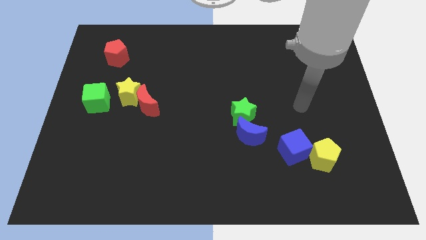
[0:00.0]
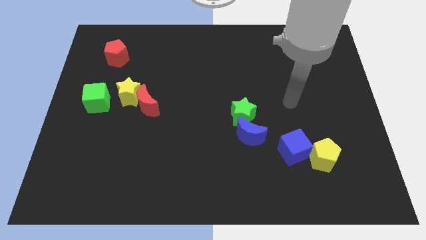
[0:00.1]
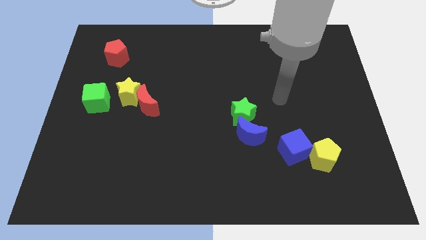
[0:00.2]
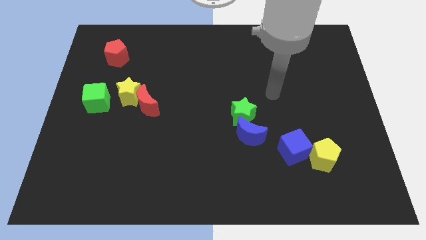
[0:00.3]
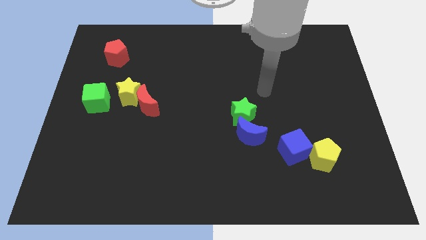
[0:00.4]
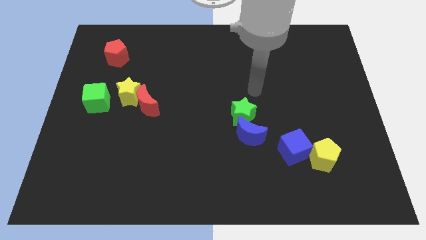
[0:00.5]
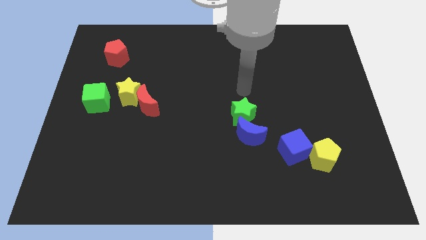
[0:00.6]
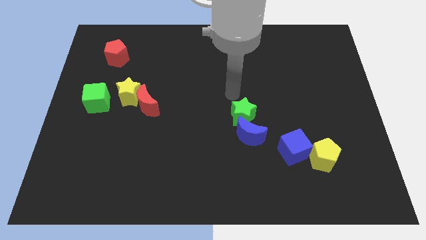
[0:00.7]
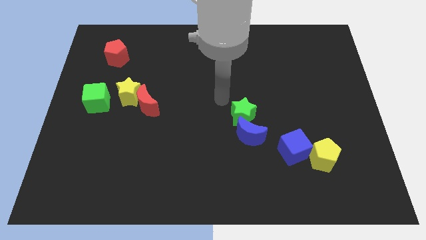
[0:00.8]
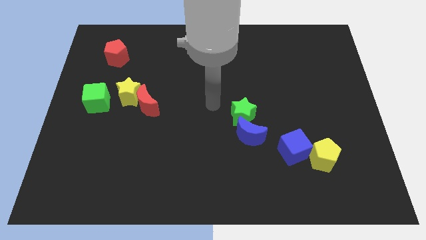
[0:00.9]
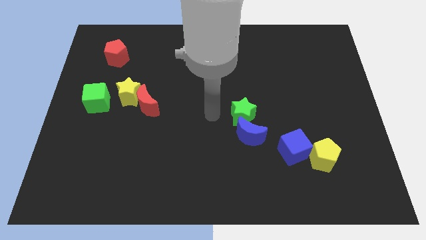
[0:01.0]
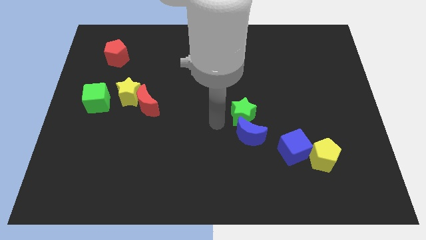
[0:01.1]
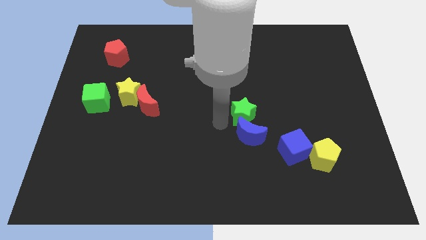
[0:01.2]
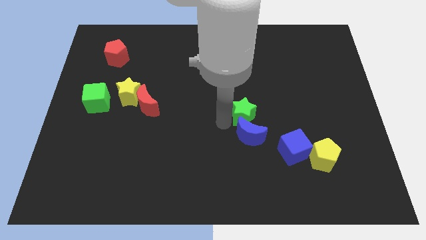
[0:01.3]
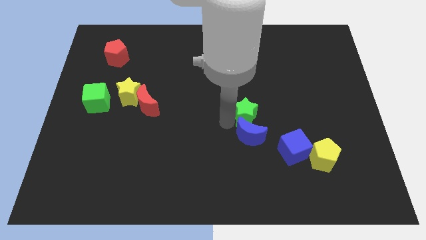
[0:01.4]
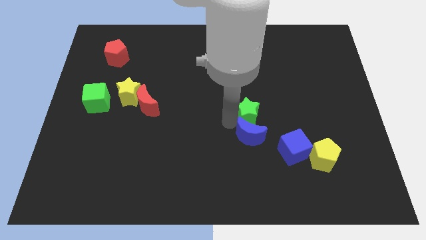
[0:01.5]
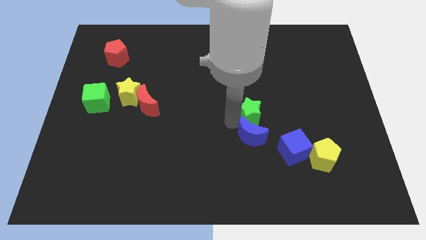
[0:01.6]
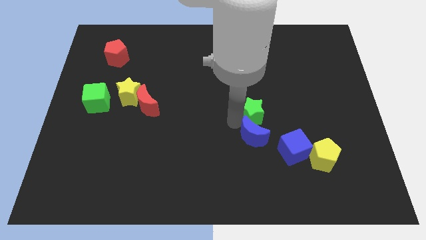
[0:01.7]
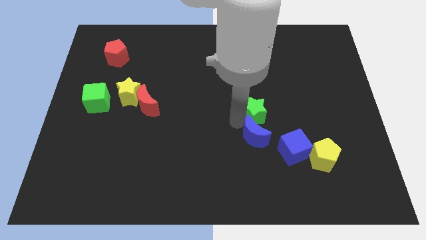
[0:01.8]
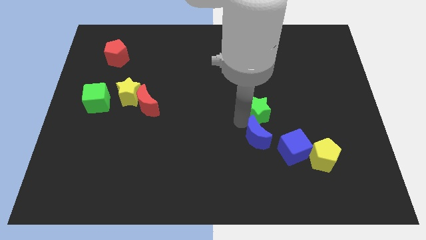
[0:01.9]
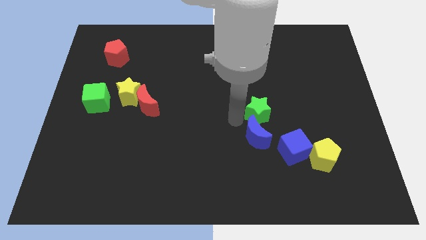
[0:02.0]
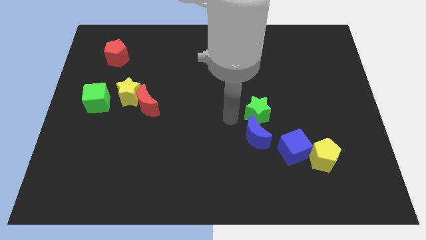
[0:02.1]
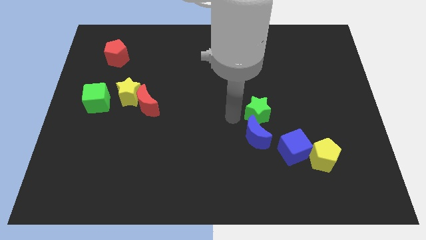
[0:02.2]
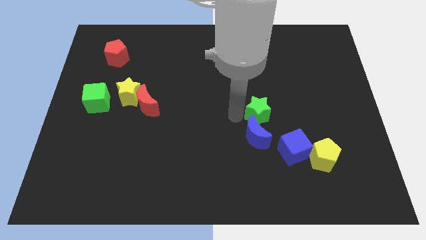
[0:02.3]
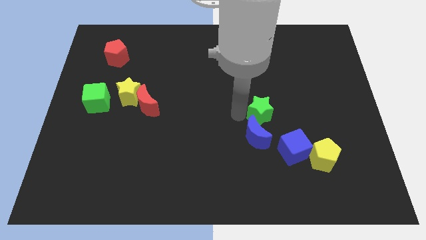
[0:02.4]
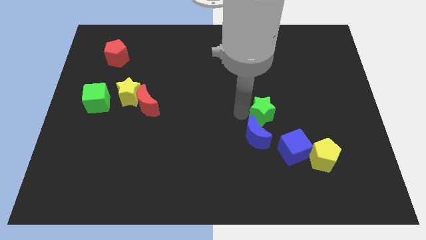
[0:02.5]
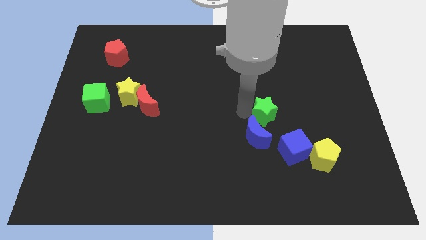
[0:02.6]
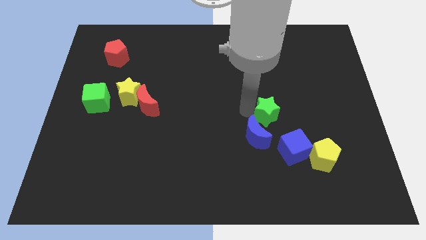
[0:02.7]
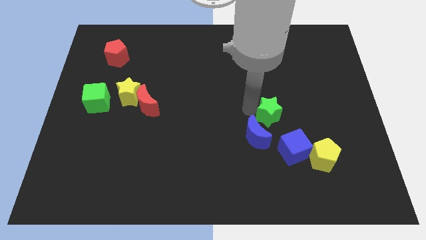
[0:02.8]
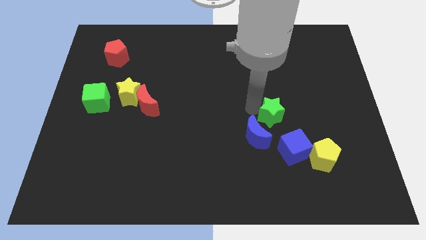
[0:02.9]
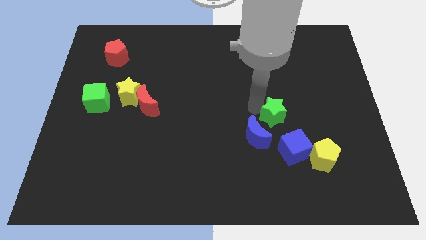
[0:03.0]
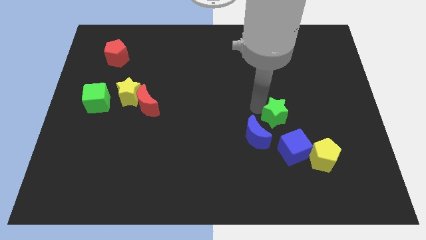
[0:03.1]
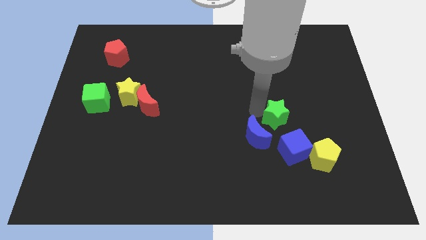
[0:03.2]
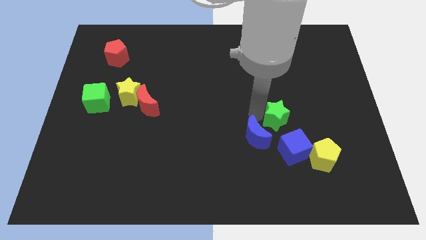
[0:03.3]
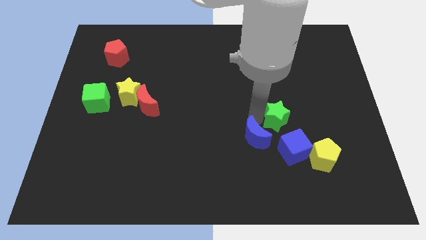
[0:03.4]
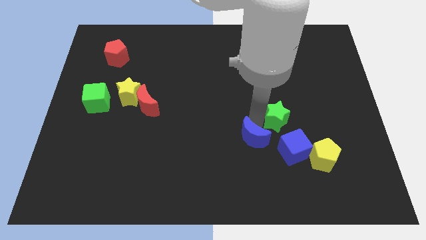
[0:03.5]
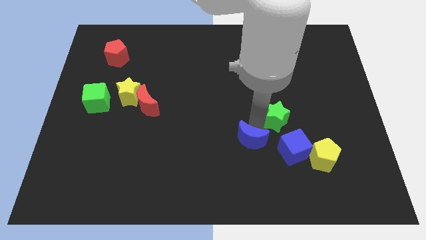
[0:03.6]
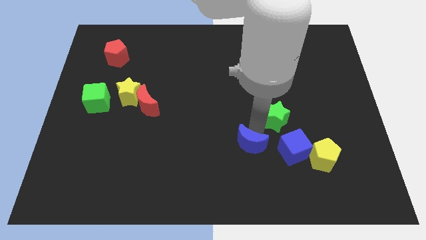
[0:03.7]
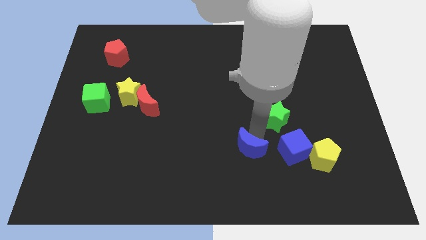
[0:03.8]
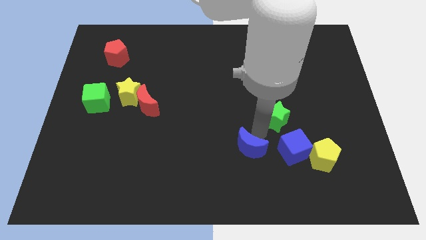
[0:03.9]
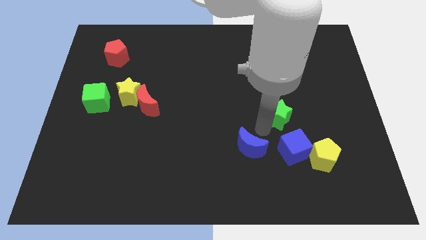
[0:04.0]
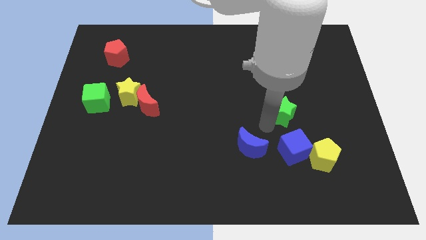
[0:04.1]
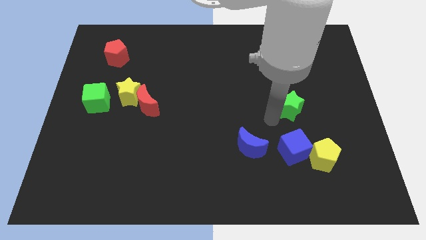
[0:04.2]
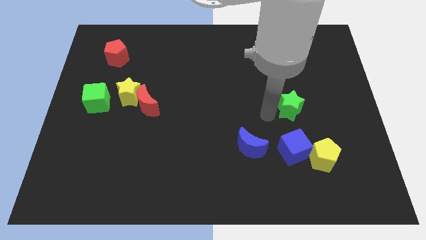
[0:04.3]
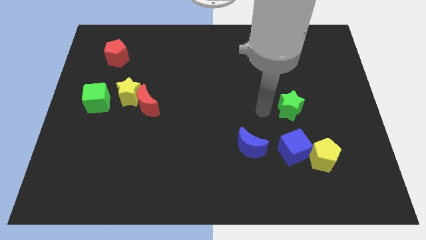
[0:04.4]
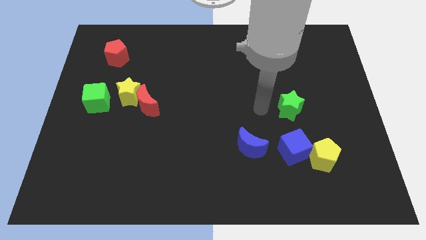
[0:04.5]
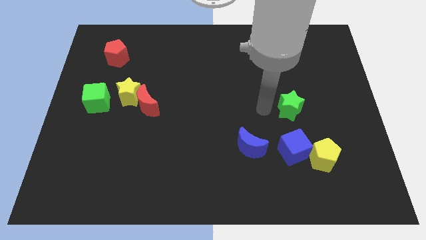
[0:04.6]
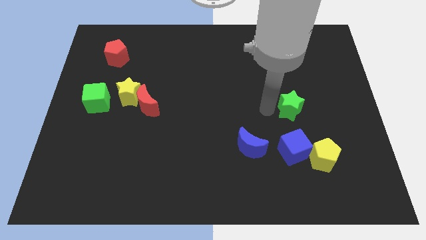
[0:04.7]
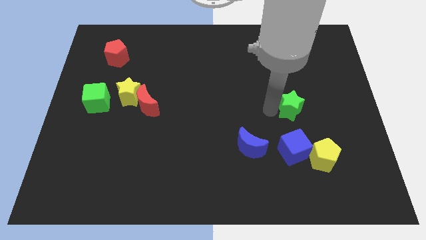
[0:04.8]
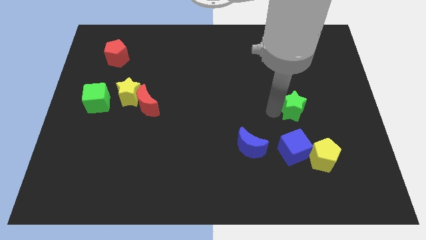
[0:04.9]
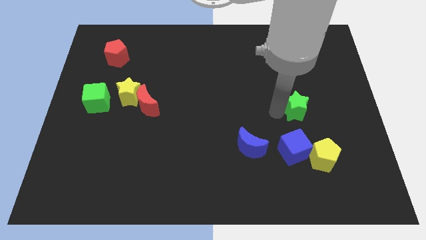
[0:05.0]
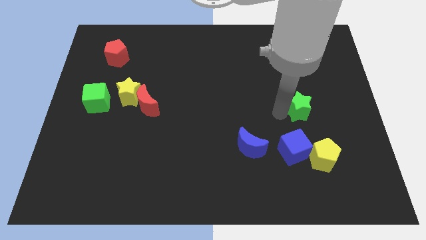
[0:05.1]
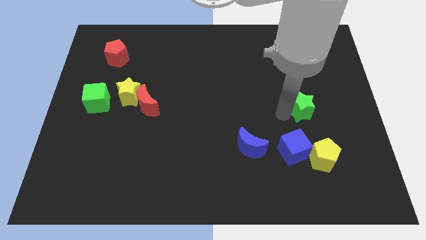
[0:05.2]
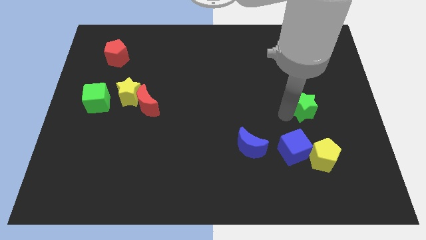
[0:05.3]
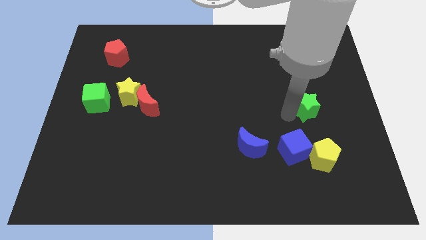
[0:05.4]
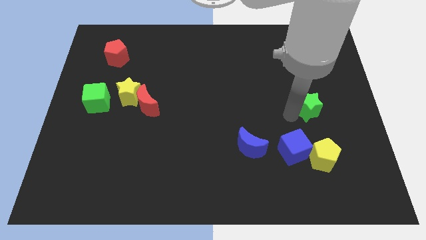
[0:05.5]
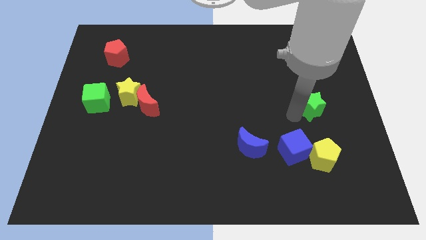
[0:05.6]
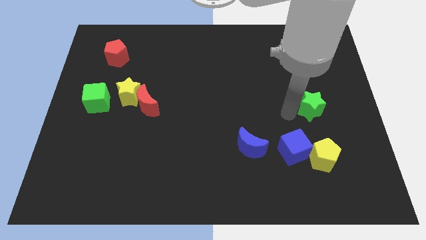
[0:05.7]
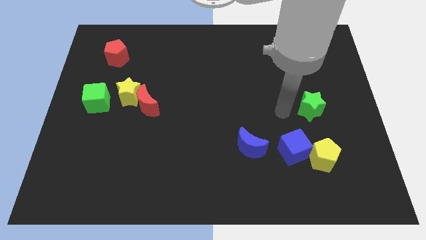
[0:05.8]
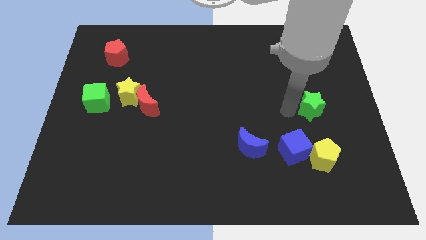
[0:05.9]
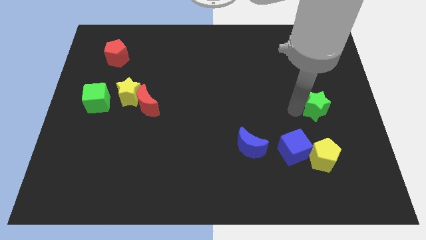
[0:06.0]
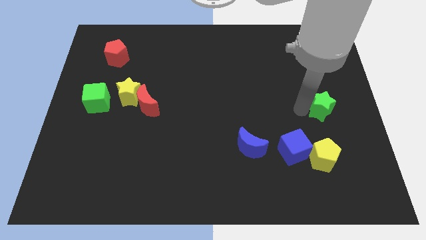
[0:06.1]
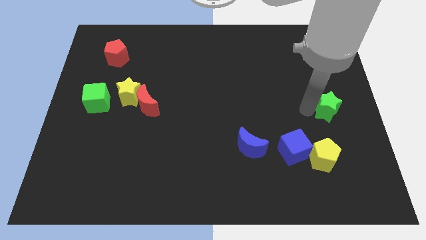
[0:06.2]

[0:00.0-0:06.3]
move the green star to the right side

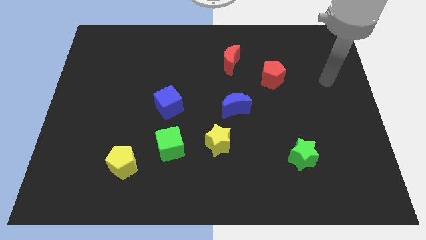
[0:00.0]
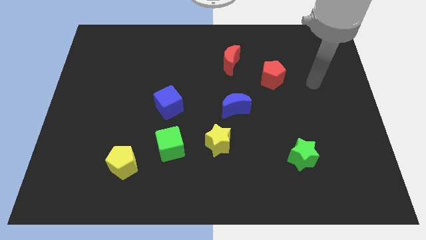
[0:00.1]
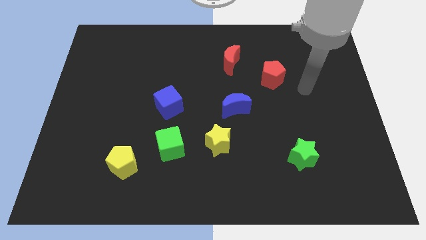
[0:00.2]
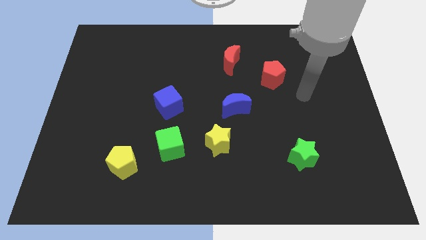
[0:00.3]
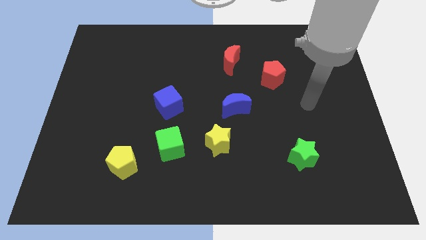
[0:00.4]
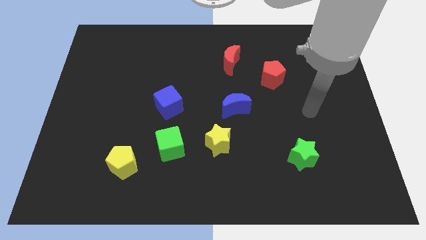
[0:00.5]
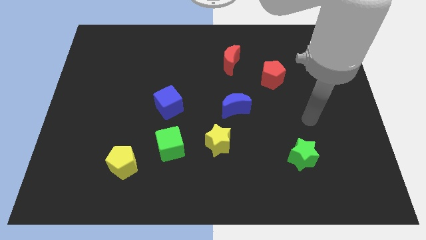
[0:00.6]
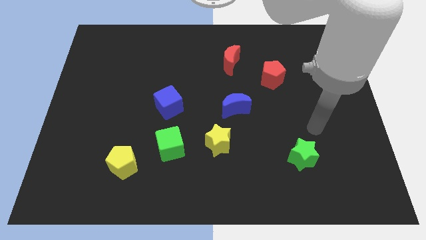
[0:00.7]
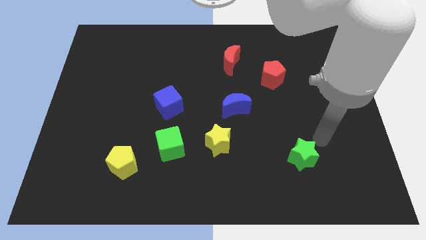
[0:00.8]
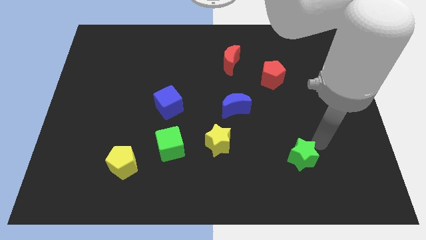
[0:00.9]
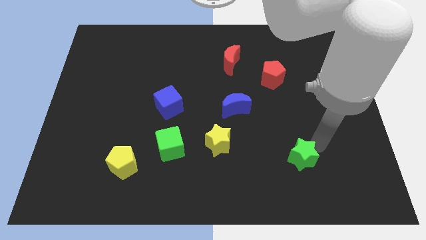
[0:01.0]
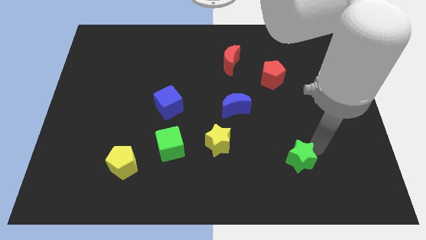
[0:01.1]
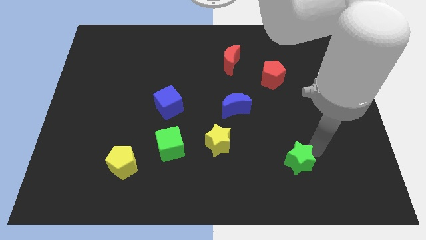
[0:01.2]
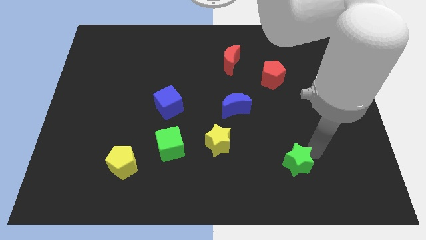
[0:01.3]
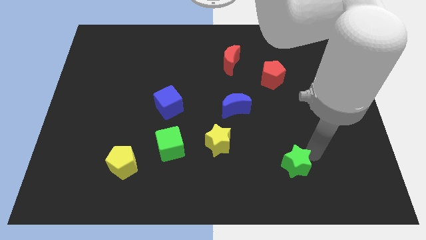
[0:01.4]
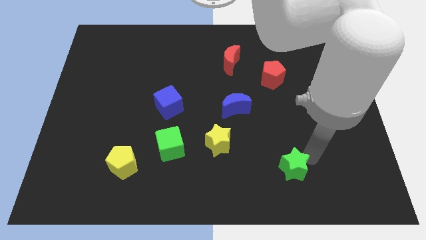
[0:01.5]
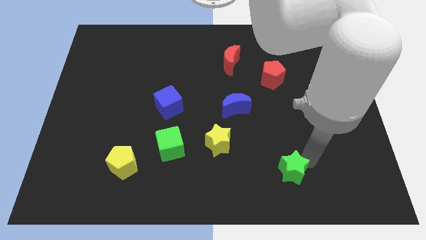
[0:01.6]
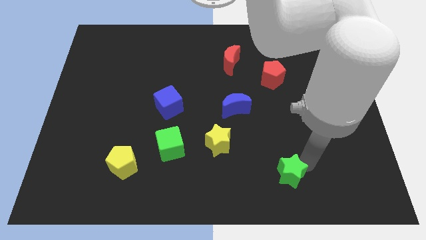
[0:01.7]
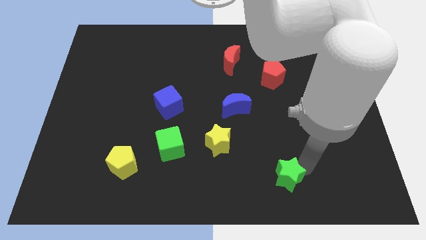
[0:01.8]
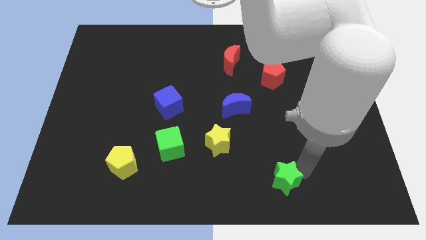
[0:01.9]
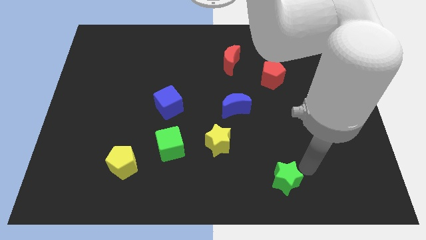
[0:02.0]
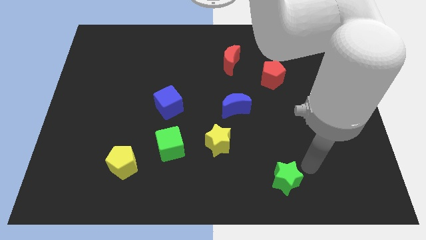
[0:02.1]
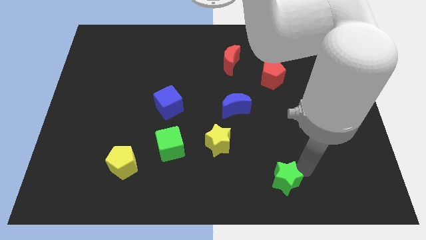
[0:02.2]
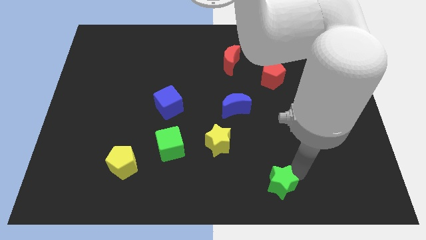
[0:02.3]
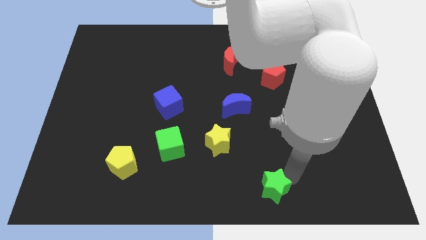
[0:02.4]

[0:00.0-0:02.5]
slide the green star to the bottom side
